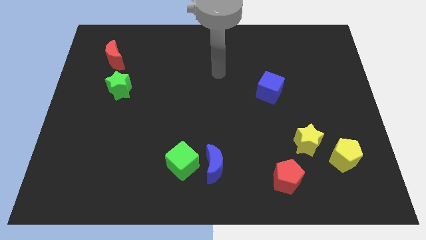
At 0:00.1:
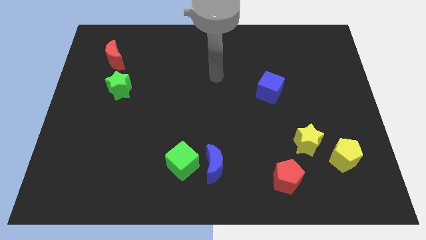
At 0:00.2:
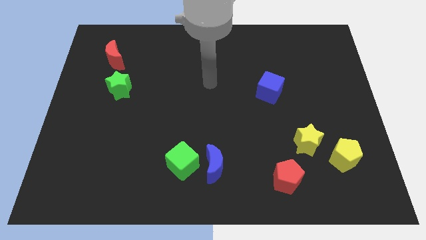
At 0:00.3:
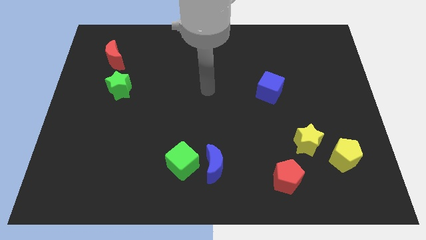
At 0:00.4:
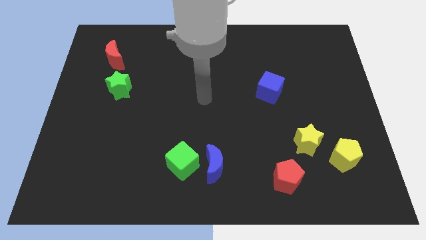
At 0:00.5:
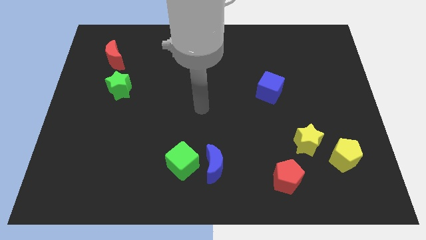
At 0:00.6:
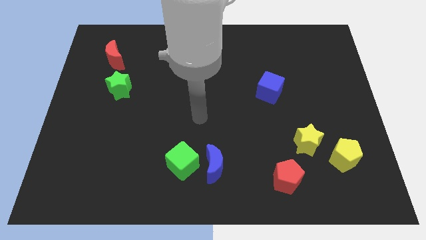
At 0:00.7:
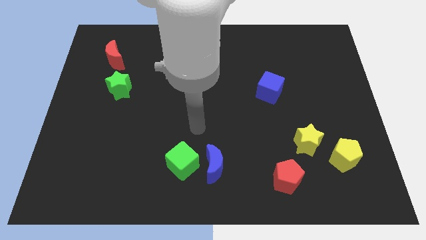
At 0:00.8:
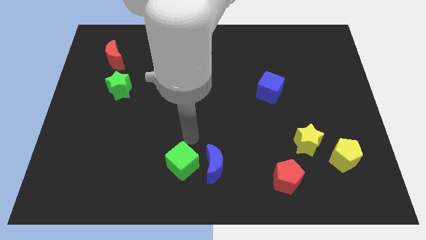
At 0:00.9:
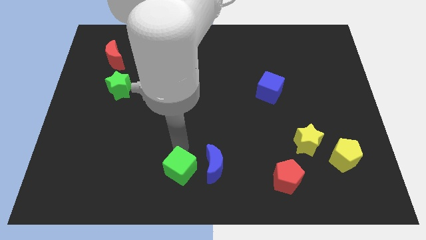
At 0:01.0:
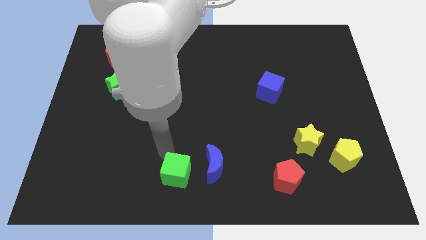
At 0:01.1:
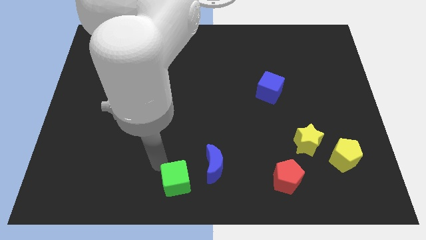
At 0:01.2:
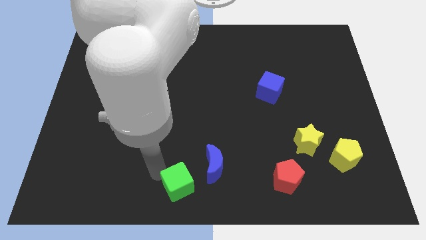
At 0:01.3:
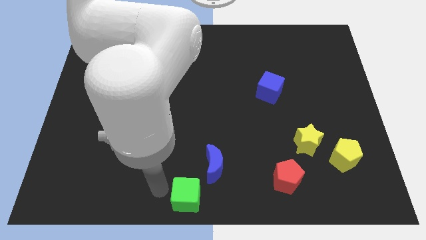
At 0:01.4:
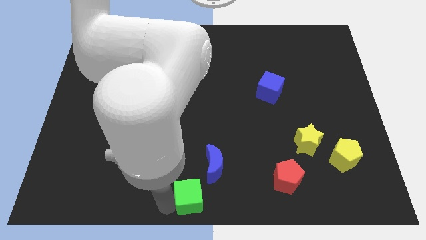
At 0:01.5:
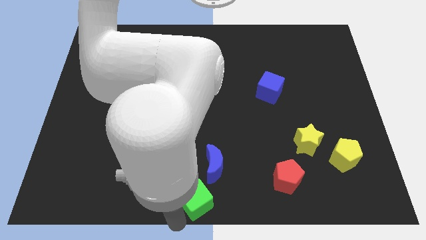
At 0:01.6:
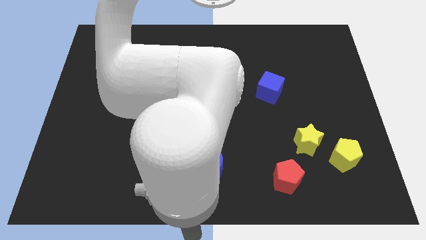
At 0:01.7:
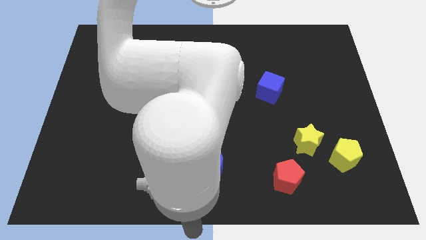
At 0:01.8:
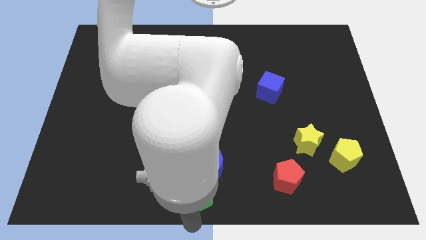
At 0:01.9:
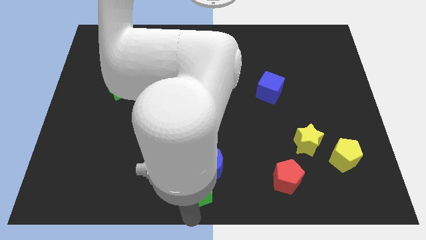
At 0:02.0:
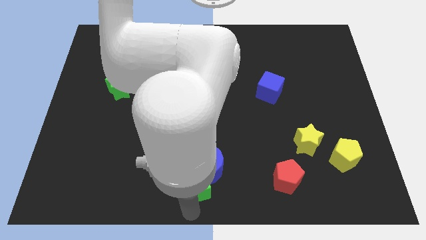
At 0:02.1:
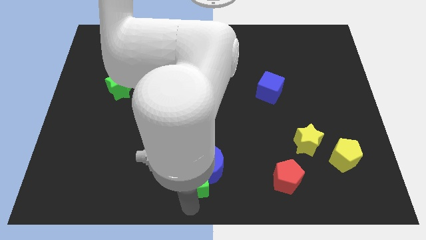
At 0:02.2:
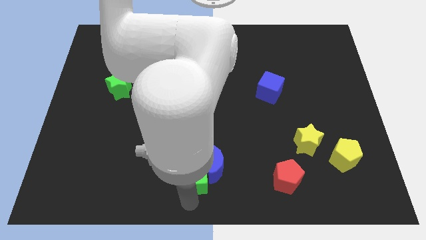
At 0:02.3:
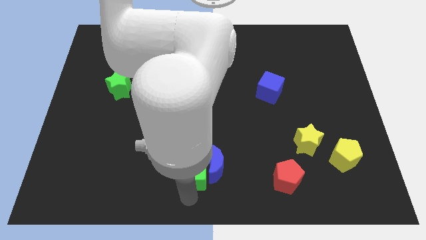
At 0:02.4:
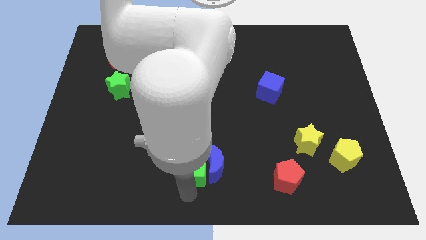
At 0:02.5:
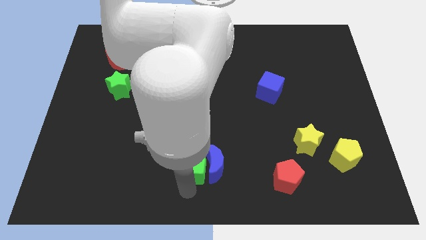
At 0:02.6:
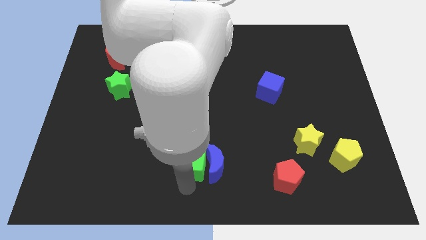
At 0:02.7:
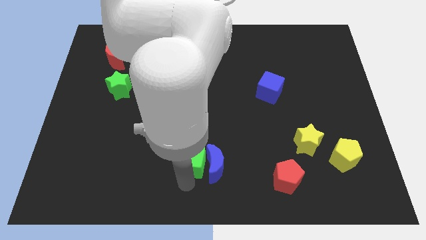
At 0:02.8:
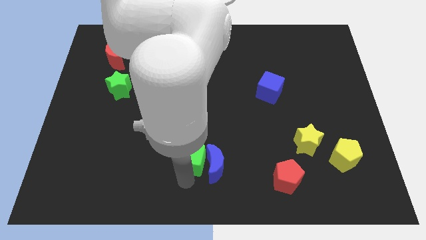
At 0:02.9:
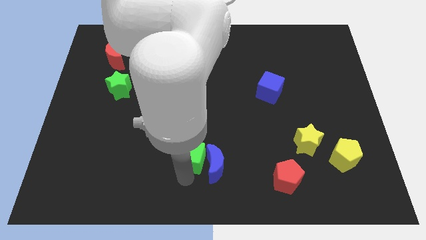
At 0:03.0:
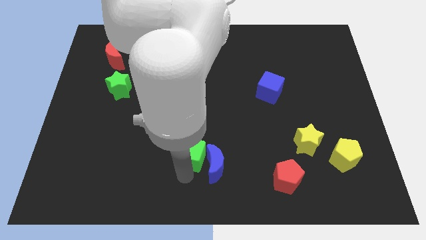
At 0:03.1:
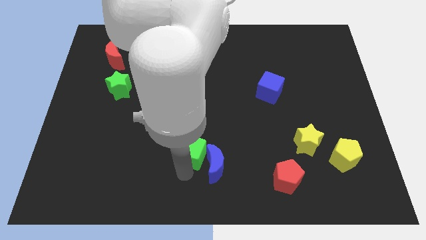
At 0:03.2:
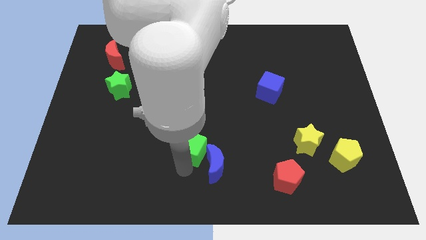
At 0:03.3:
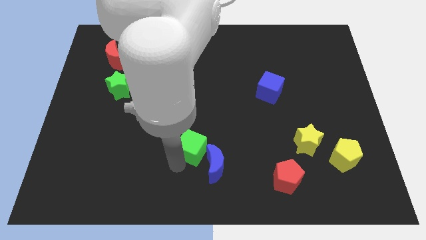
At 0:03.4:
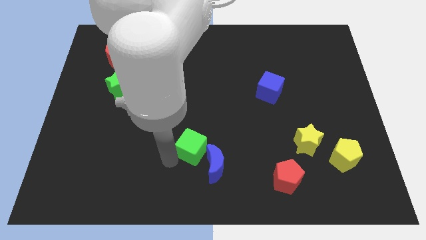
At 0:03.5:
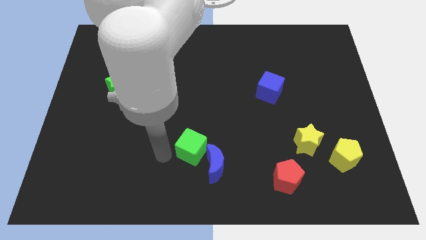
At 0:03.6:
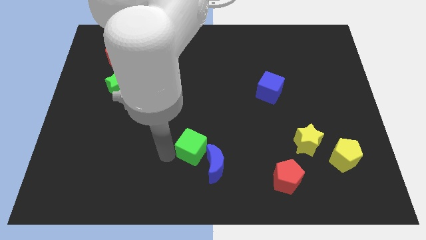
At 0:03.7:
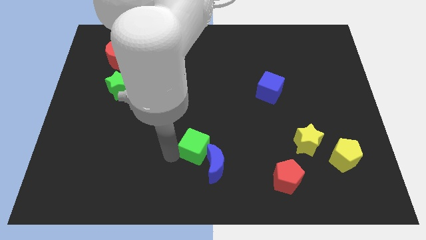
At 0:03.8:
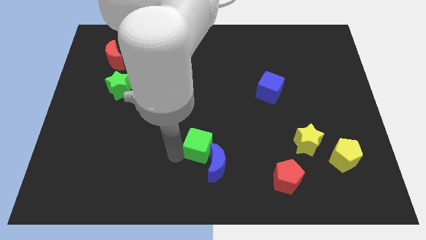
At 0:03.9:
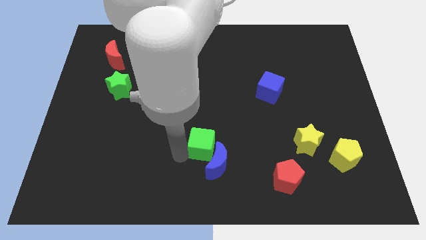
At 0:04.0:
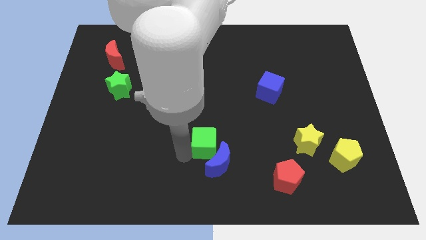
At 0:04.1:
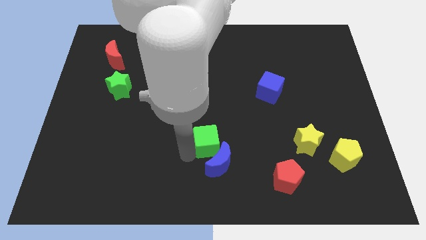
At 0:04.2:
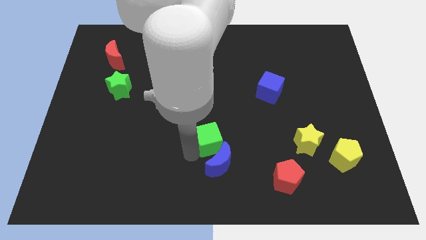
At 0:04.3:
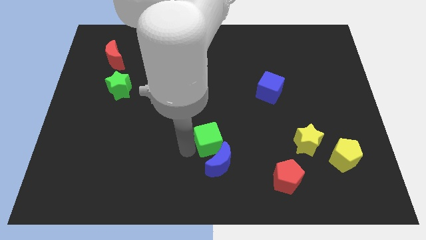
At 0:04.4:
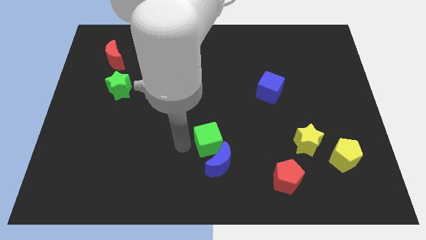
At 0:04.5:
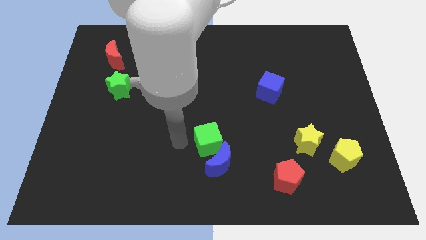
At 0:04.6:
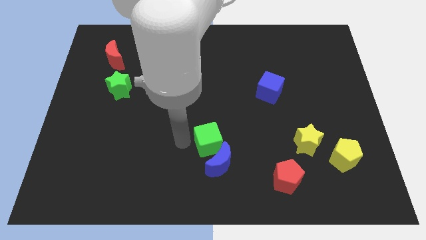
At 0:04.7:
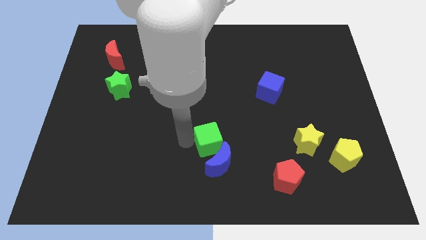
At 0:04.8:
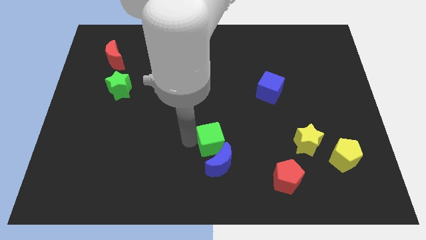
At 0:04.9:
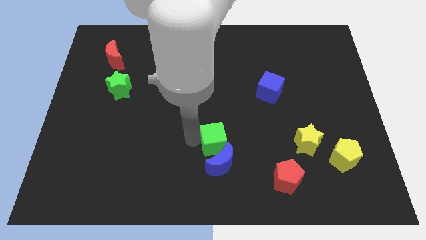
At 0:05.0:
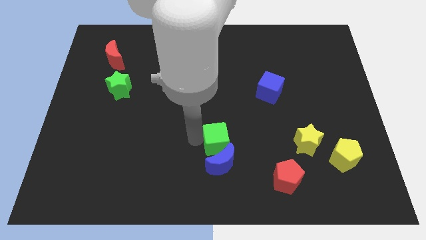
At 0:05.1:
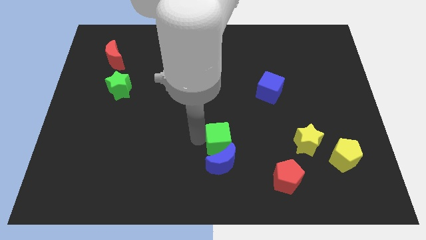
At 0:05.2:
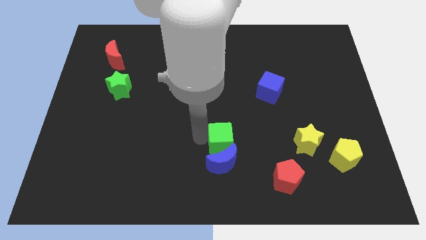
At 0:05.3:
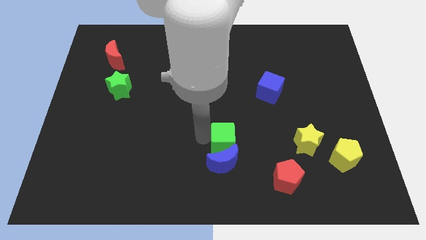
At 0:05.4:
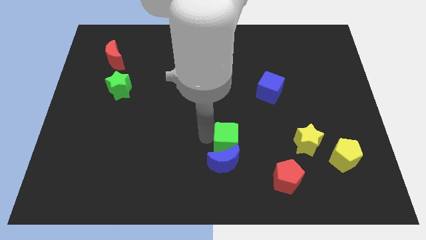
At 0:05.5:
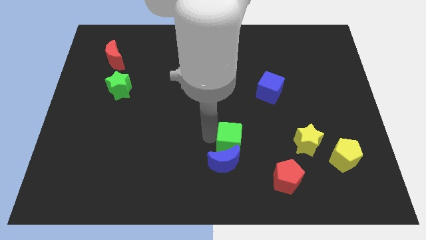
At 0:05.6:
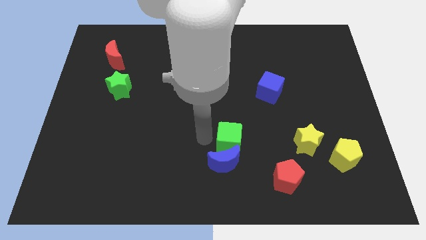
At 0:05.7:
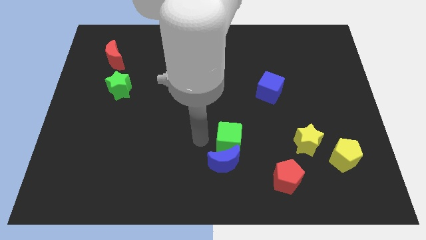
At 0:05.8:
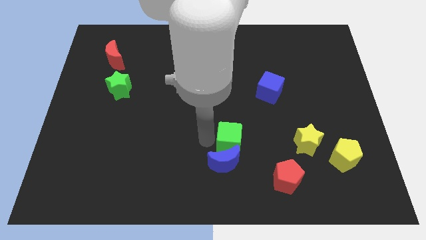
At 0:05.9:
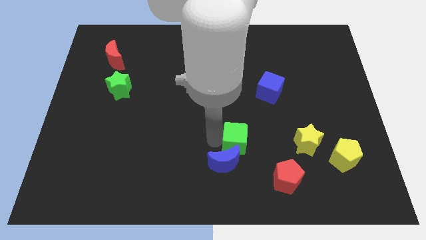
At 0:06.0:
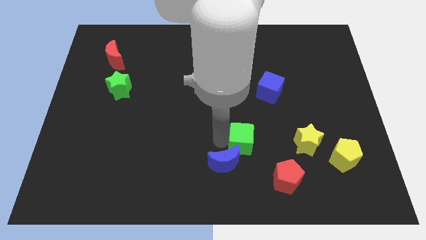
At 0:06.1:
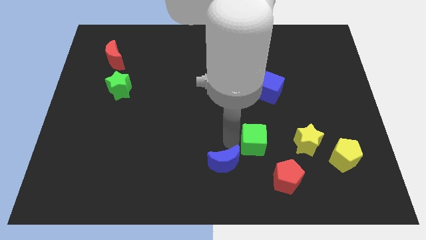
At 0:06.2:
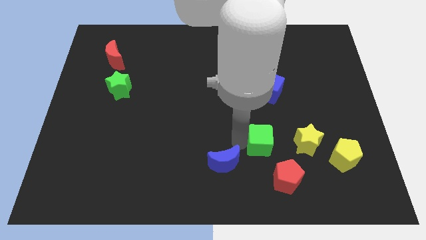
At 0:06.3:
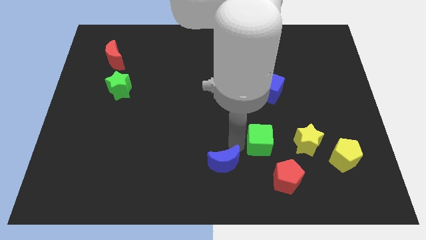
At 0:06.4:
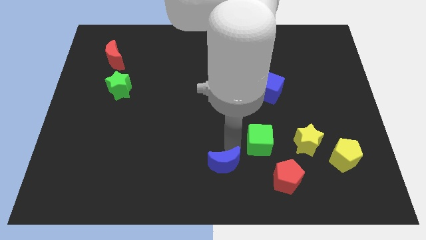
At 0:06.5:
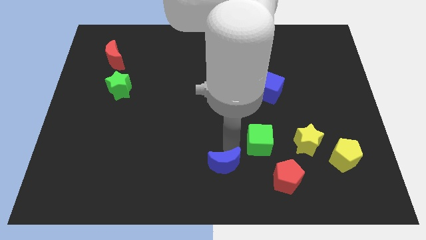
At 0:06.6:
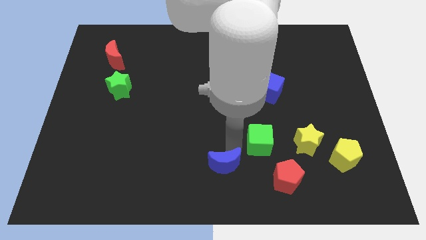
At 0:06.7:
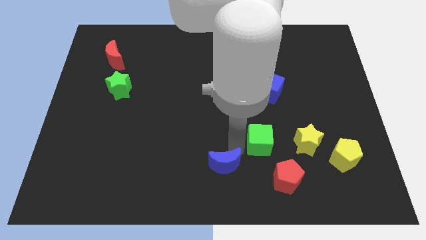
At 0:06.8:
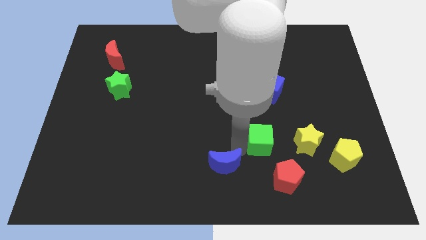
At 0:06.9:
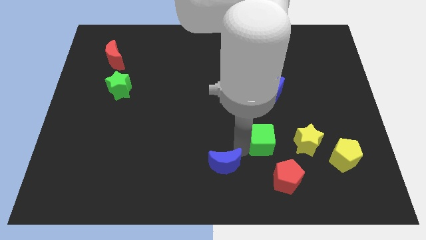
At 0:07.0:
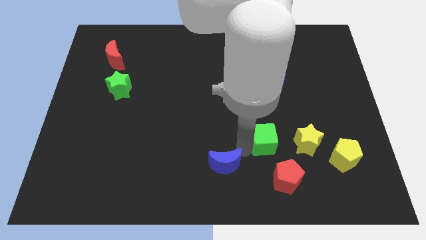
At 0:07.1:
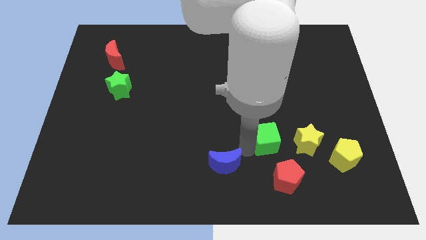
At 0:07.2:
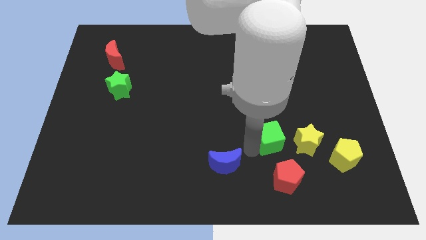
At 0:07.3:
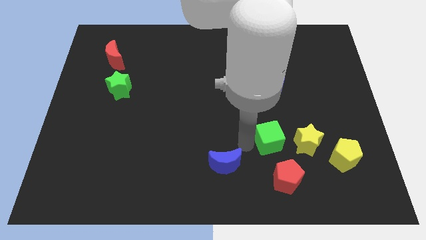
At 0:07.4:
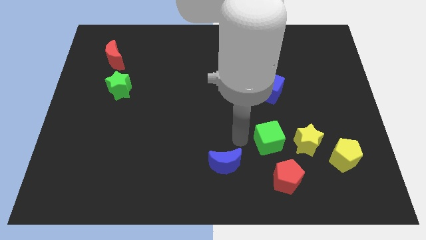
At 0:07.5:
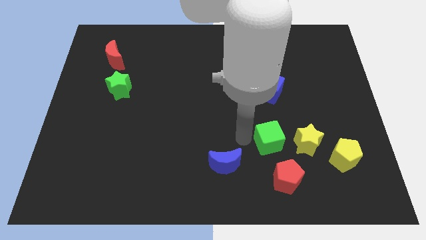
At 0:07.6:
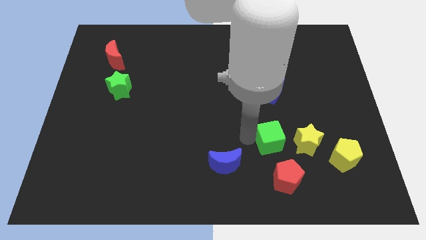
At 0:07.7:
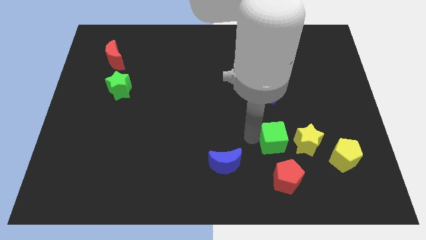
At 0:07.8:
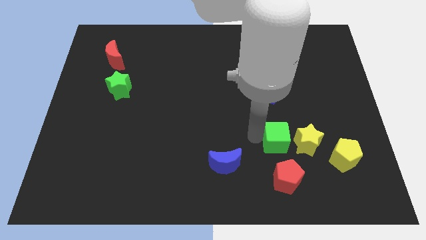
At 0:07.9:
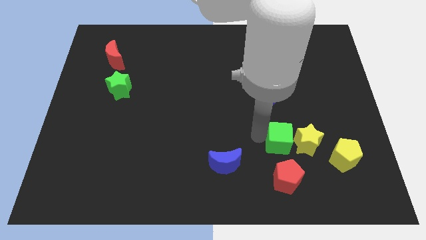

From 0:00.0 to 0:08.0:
move the green cube towards the yellow star

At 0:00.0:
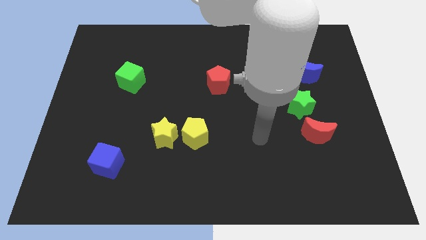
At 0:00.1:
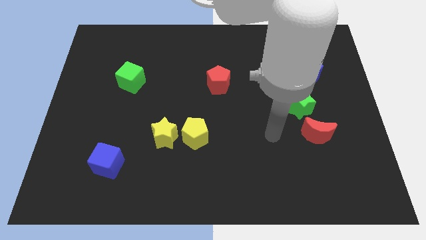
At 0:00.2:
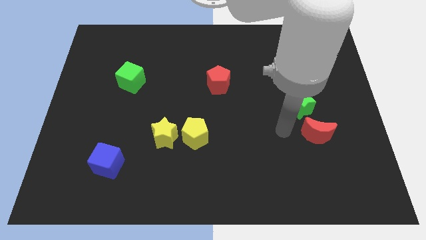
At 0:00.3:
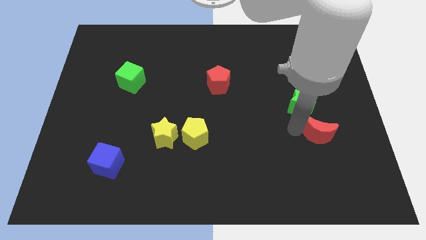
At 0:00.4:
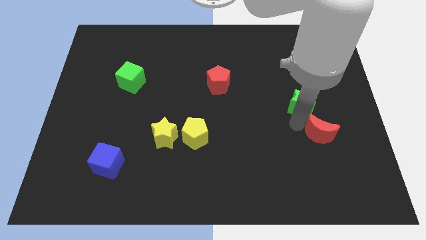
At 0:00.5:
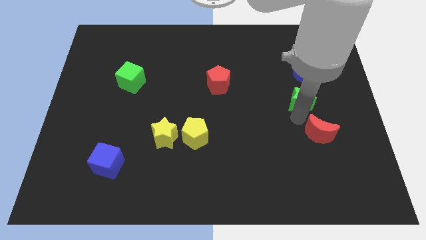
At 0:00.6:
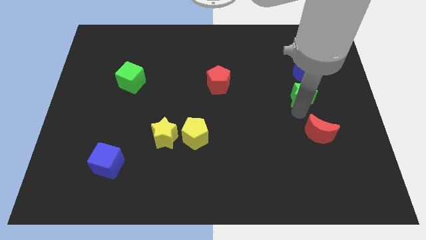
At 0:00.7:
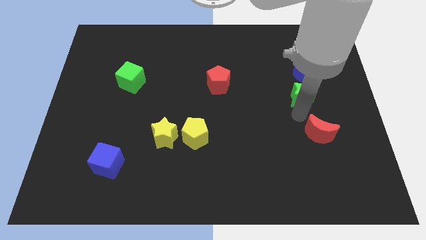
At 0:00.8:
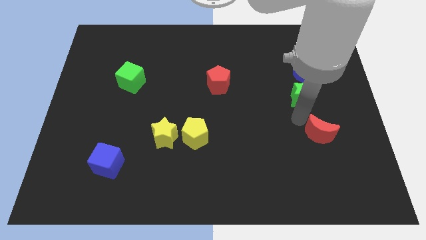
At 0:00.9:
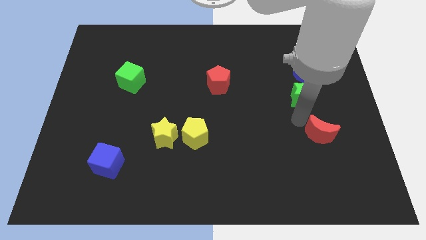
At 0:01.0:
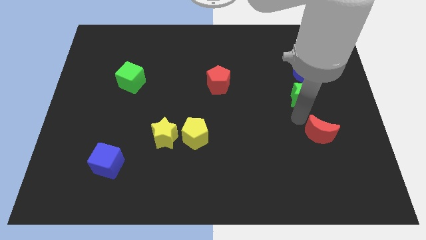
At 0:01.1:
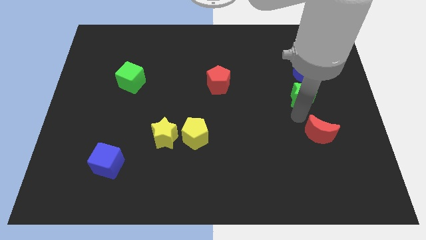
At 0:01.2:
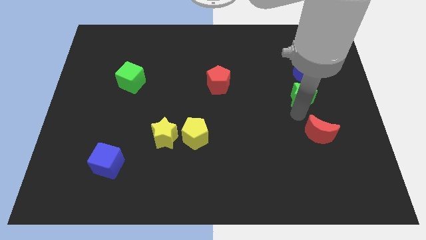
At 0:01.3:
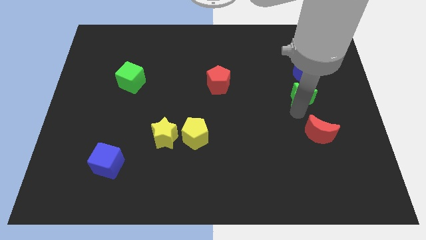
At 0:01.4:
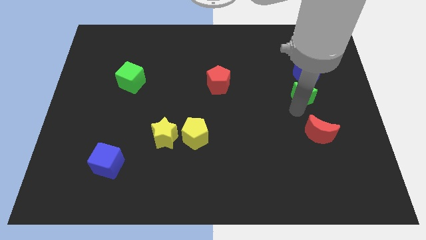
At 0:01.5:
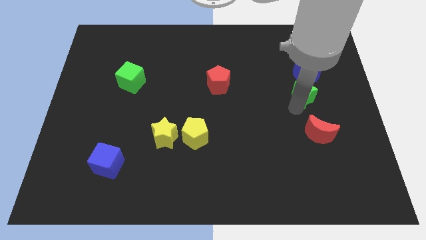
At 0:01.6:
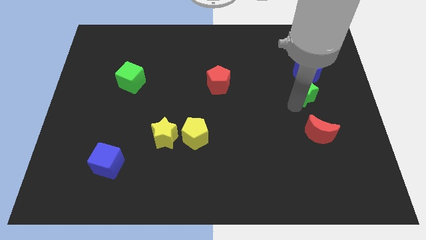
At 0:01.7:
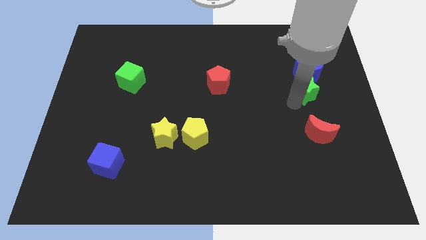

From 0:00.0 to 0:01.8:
put the green star towards the blue moon
